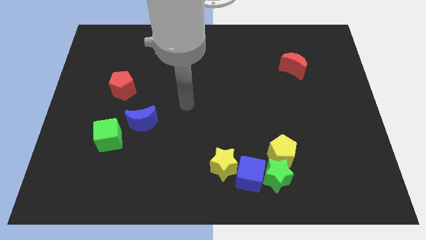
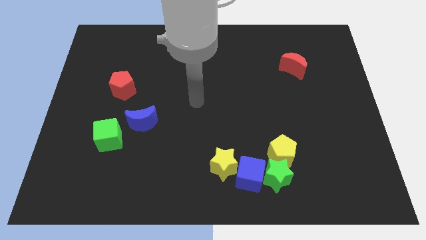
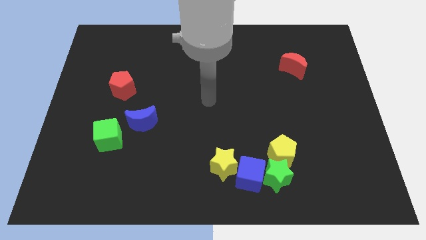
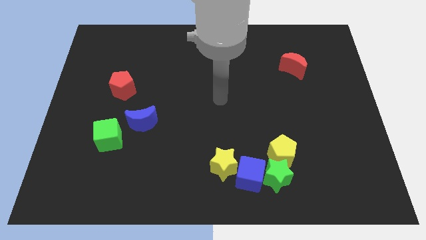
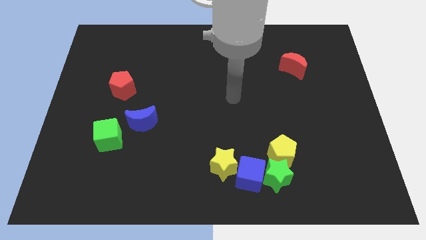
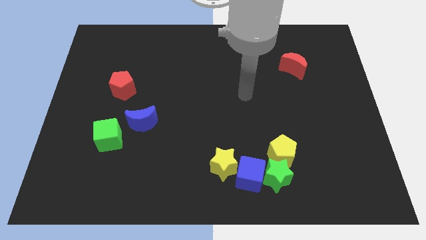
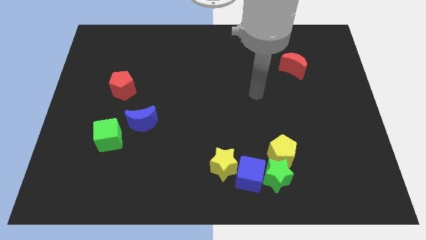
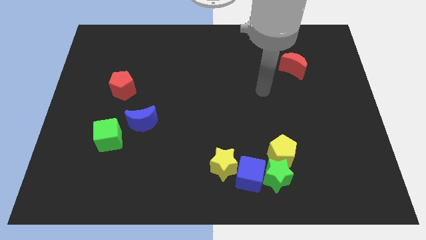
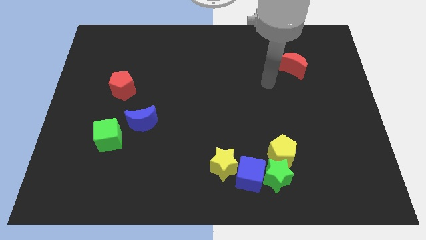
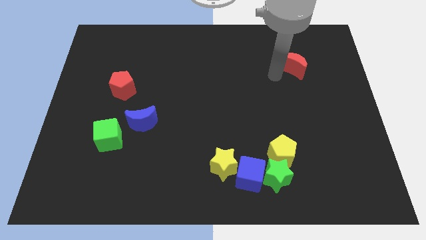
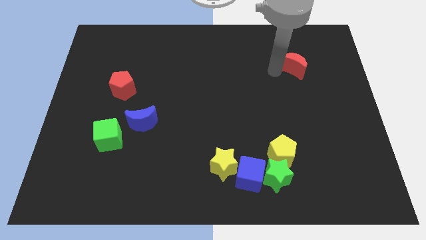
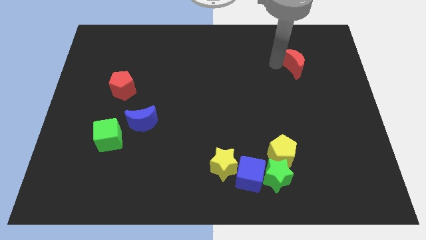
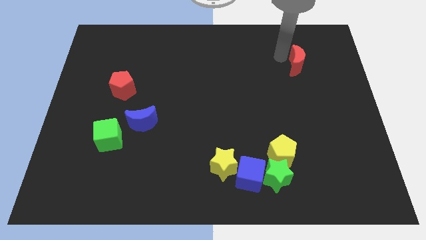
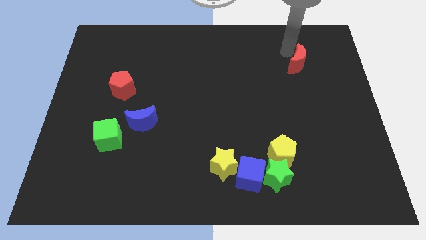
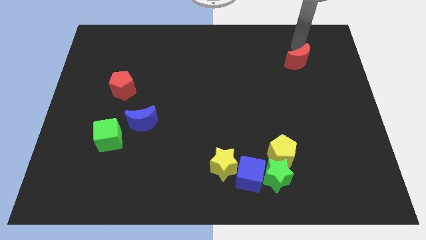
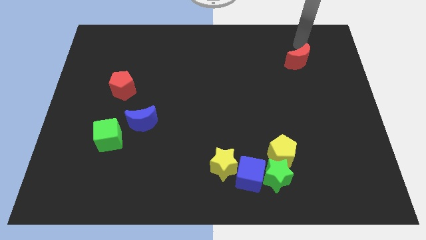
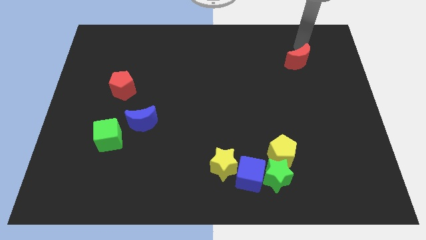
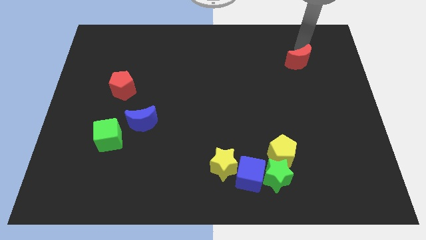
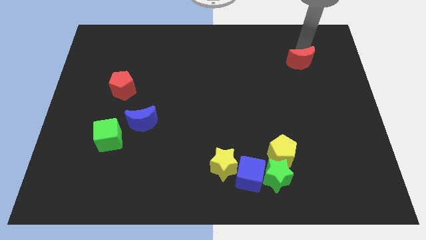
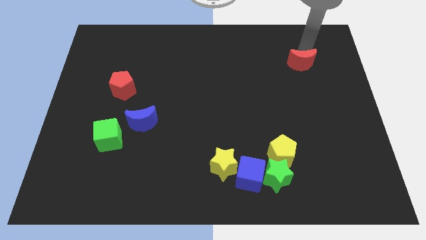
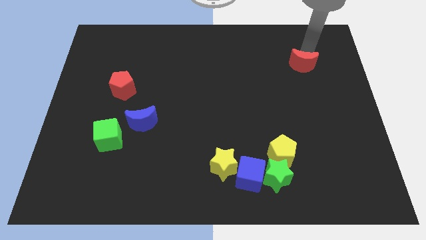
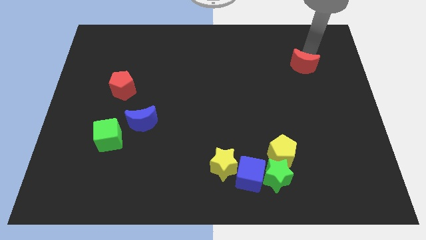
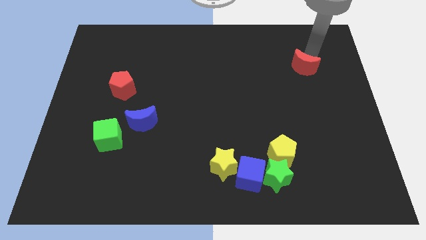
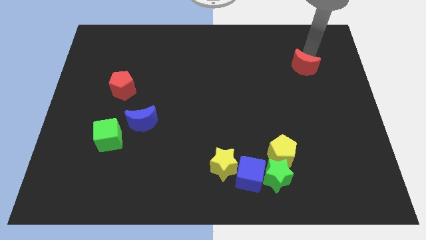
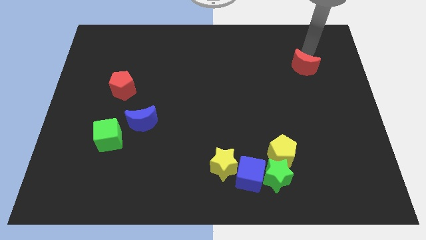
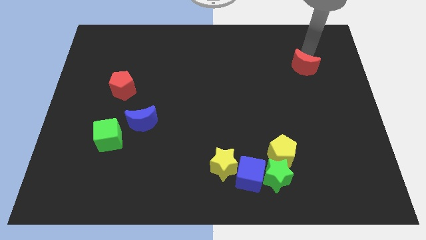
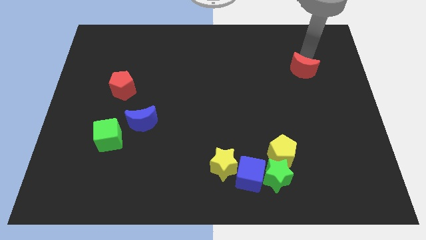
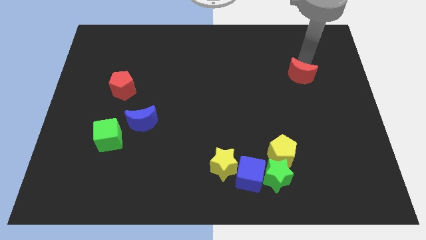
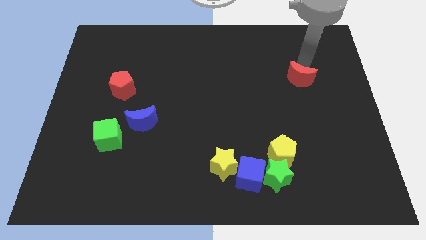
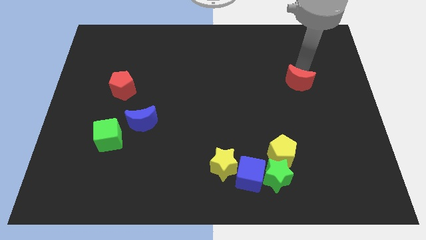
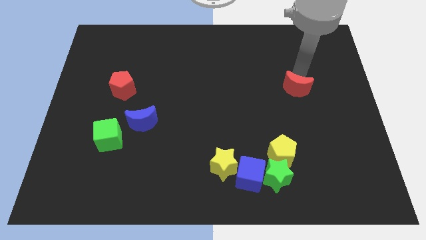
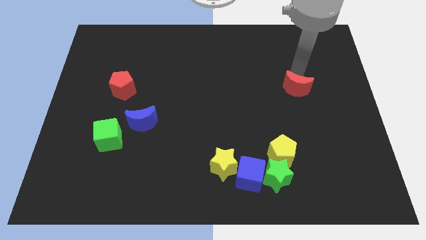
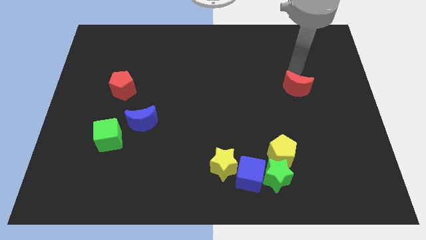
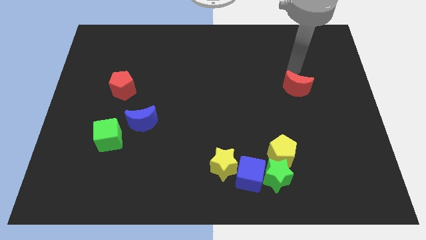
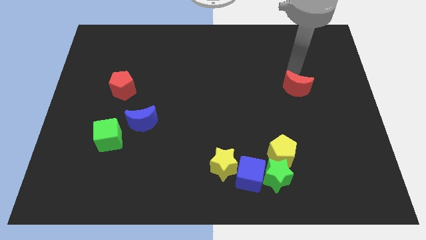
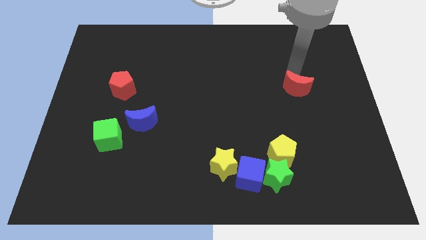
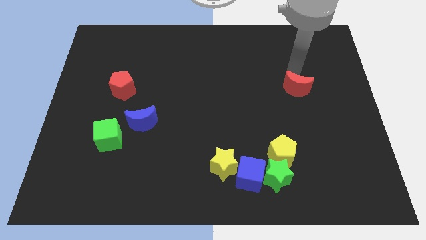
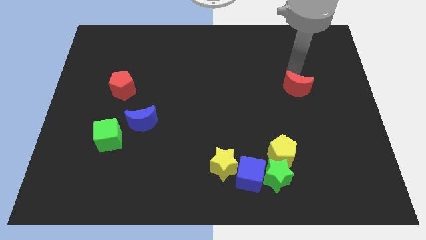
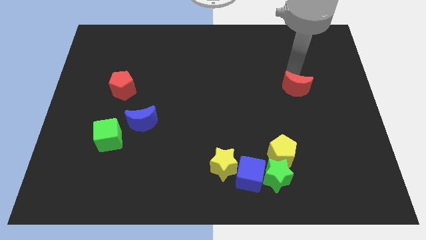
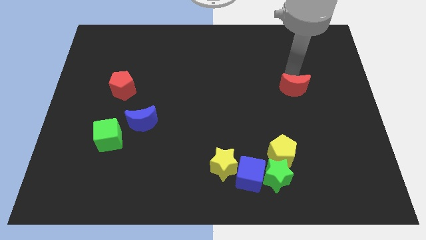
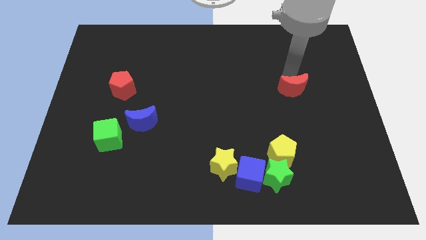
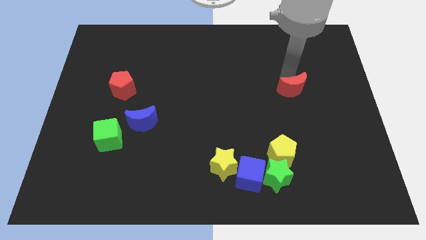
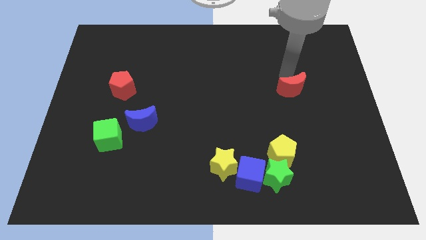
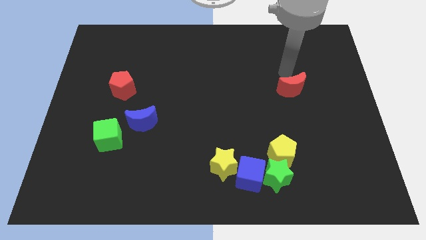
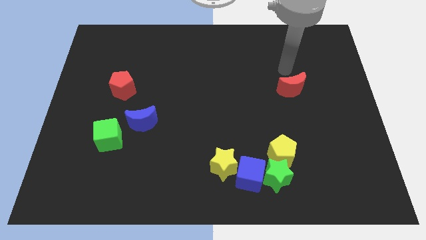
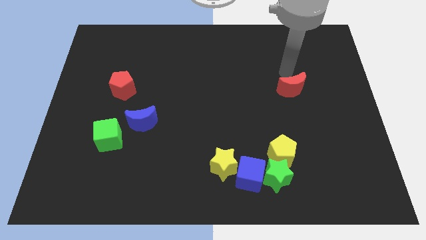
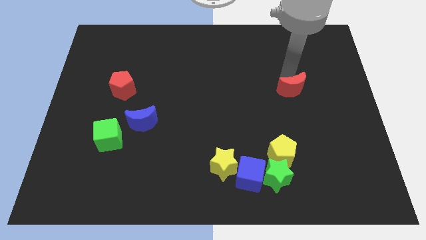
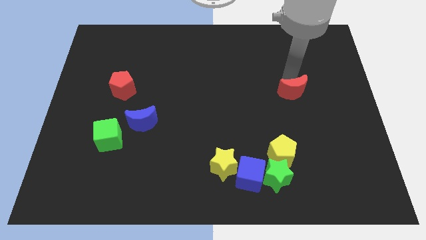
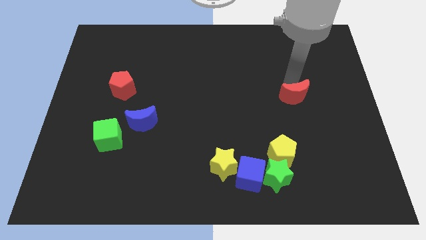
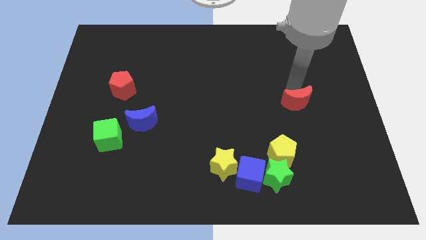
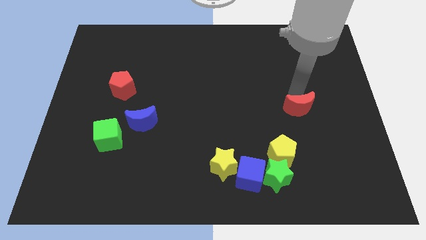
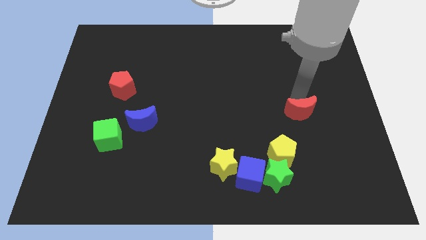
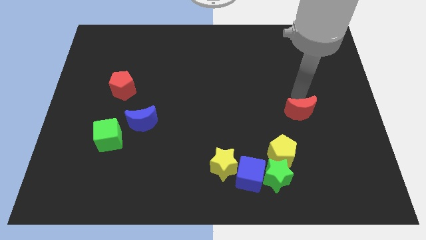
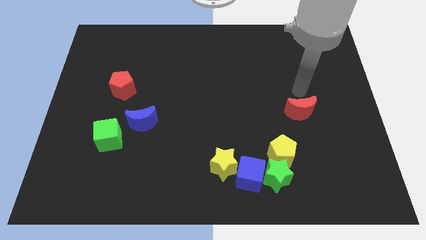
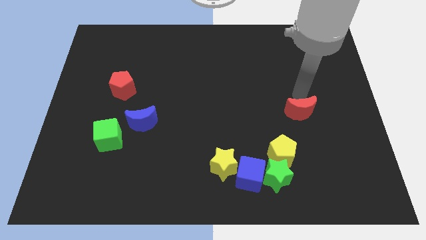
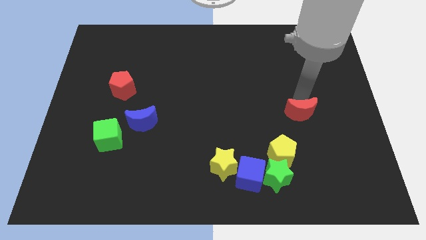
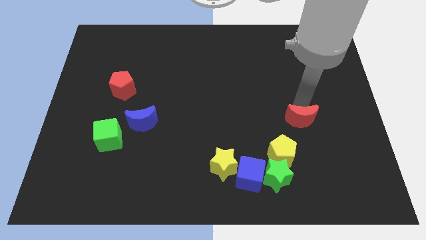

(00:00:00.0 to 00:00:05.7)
push the red moon diagonally up and to the right of the yellow pentagon

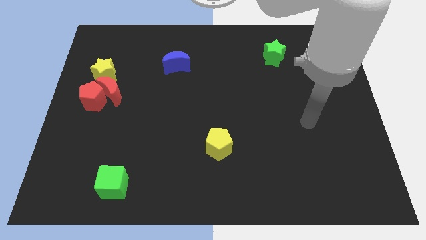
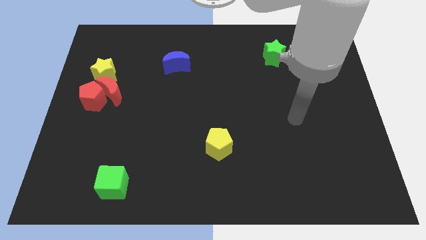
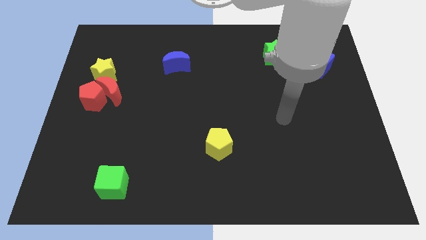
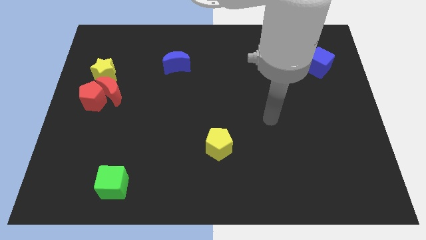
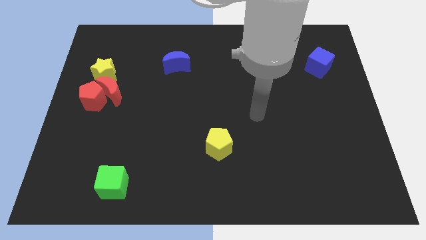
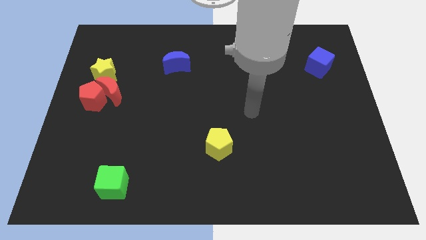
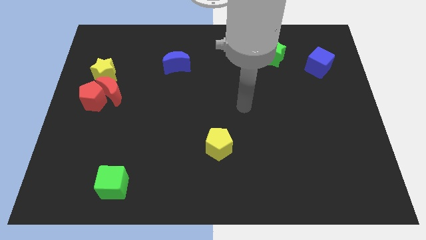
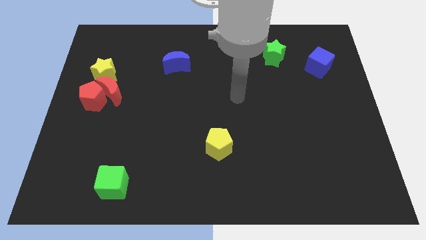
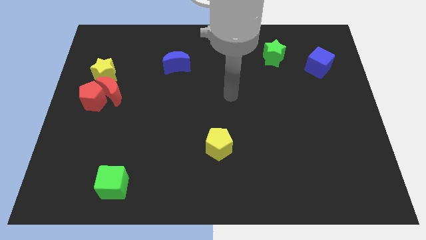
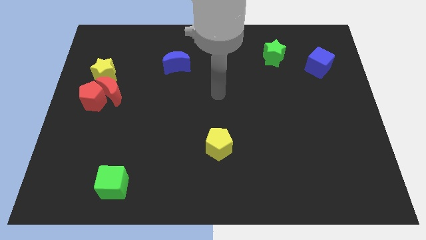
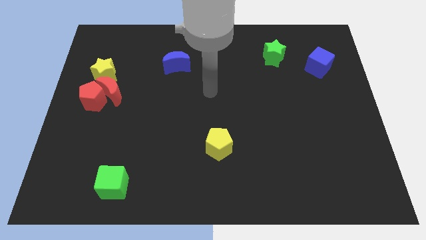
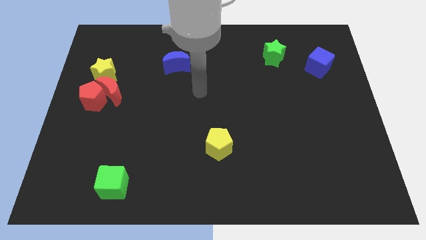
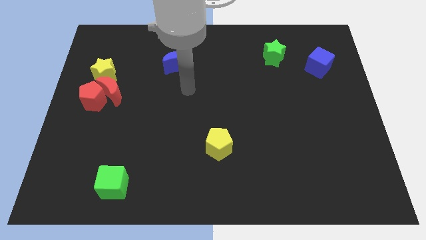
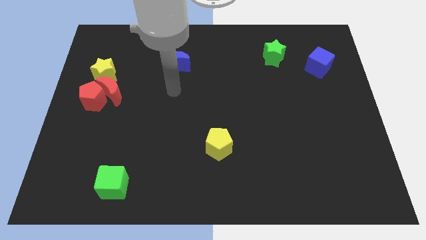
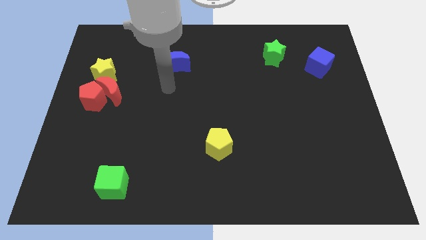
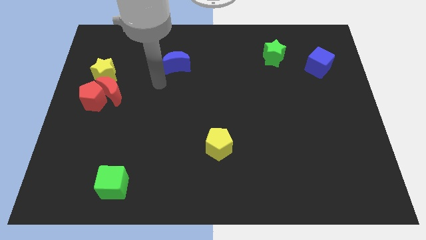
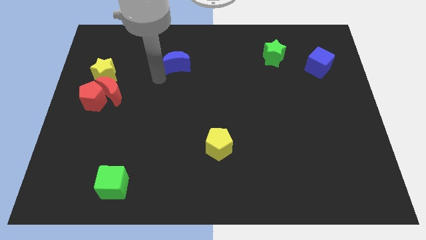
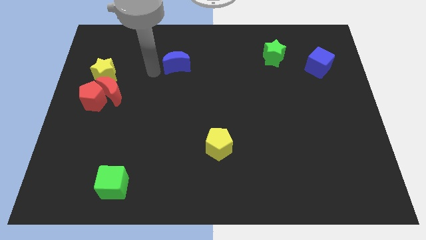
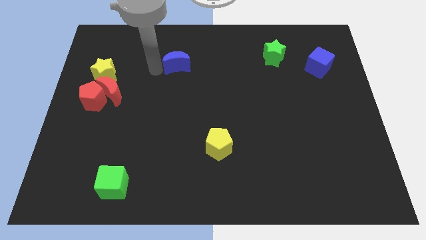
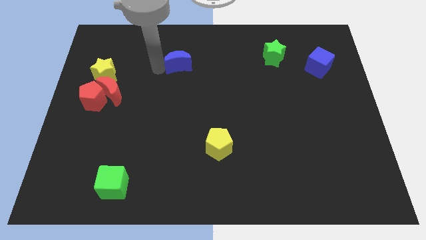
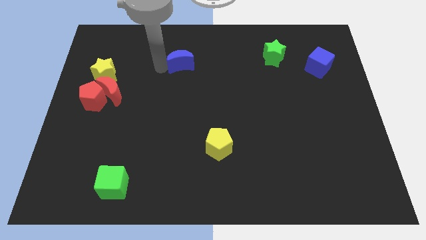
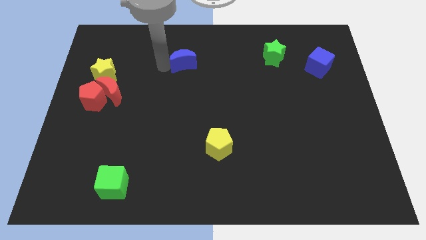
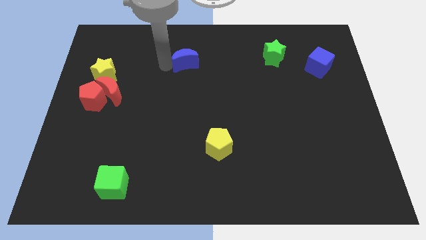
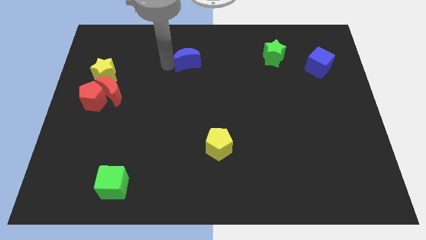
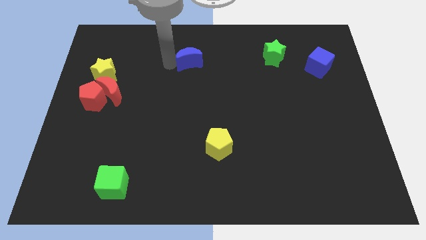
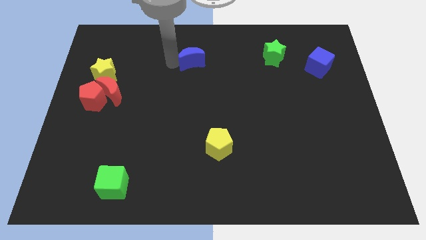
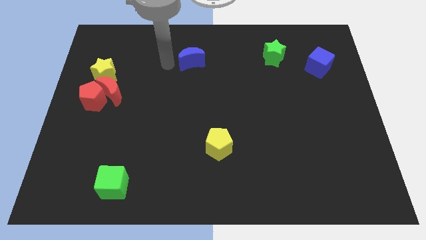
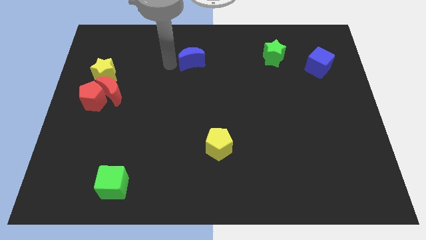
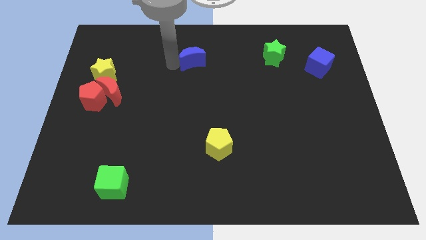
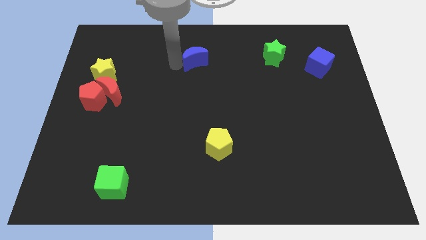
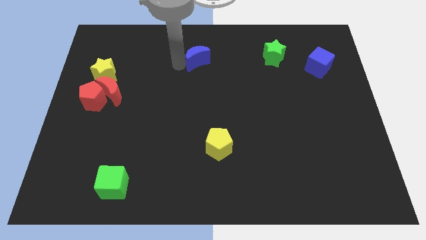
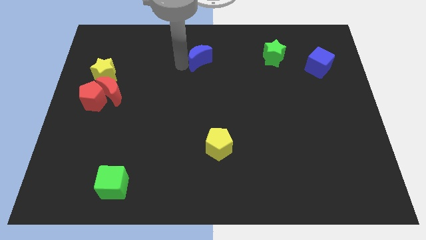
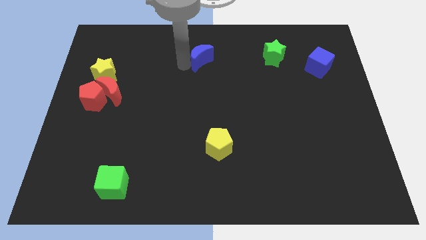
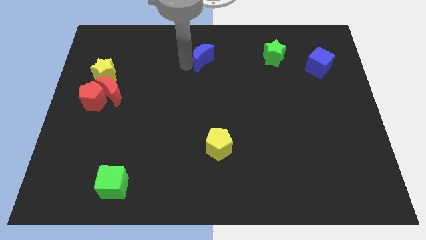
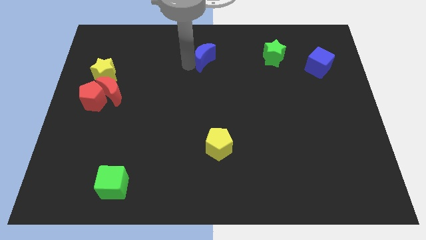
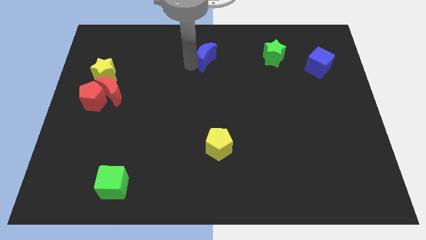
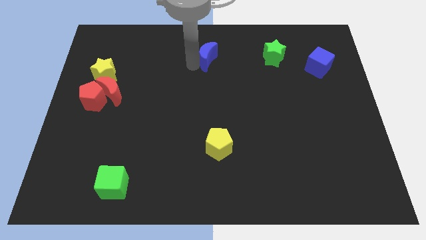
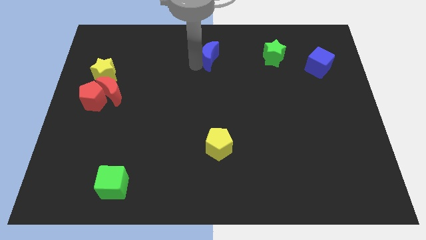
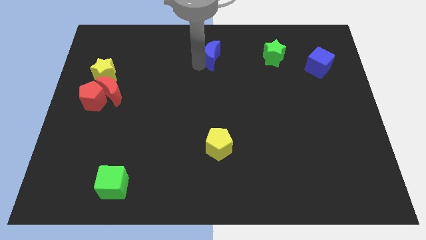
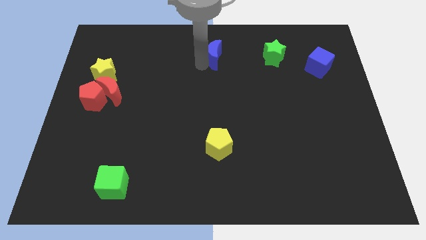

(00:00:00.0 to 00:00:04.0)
put the blue moon to the left of the green star
